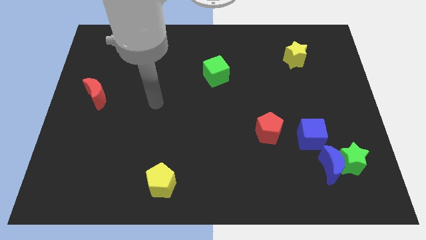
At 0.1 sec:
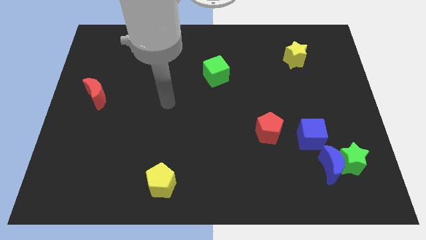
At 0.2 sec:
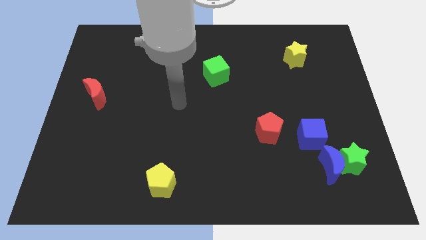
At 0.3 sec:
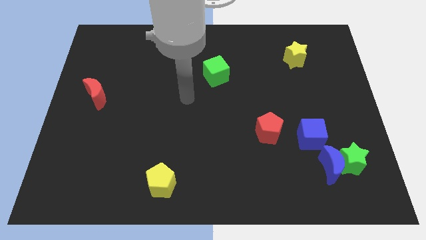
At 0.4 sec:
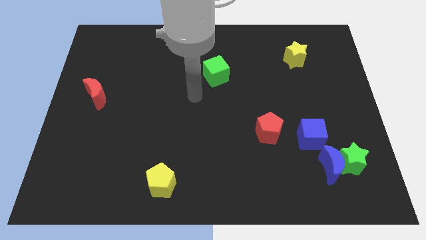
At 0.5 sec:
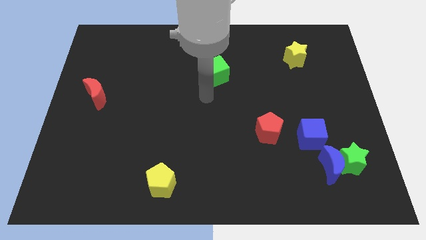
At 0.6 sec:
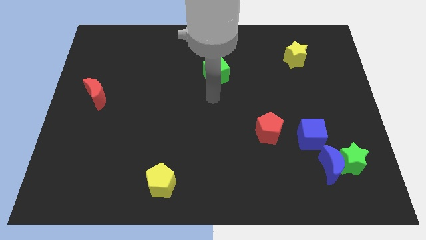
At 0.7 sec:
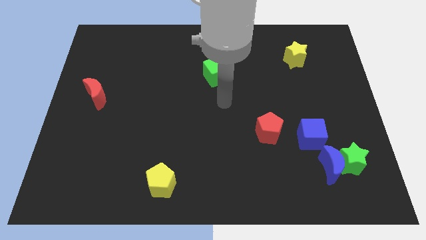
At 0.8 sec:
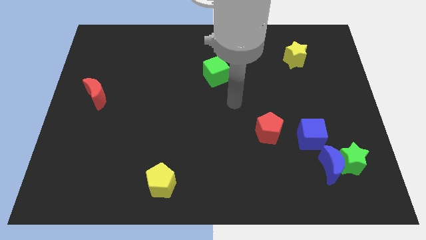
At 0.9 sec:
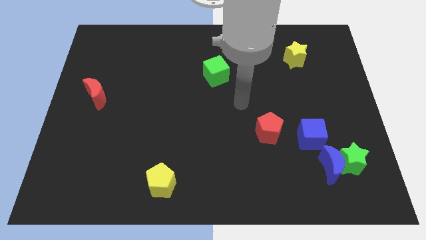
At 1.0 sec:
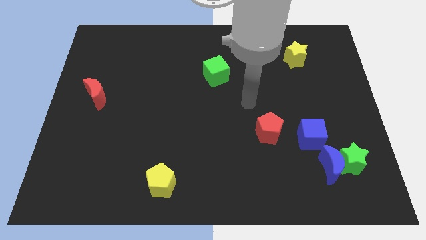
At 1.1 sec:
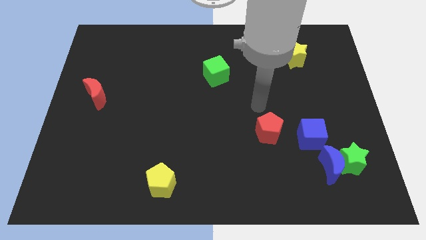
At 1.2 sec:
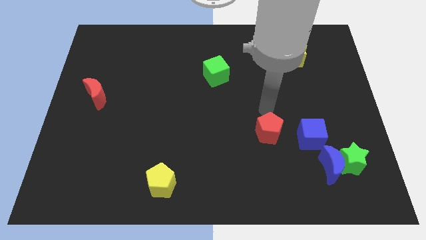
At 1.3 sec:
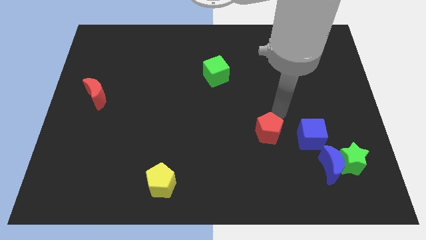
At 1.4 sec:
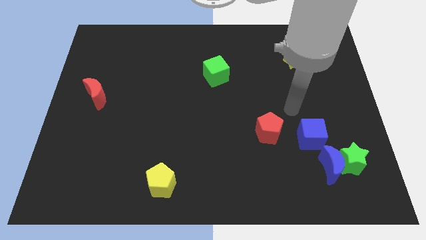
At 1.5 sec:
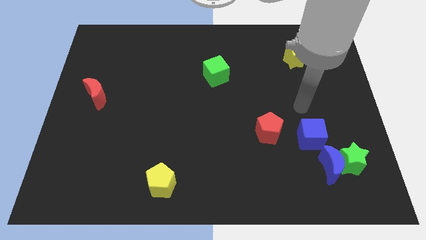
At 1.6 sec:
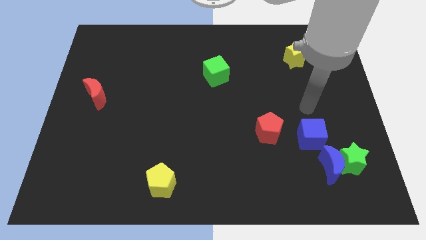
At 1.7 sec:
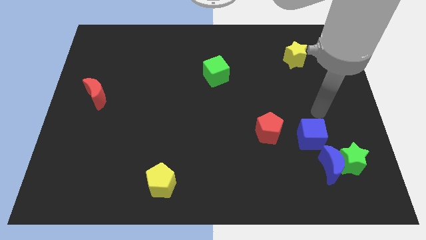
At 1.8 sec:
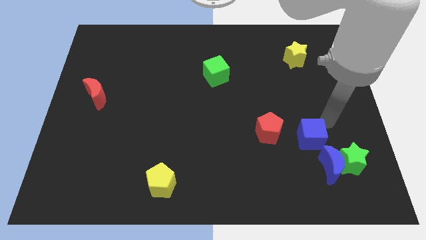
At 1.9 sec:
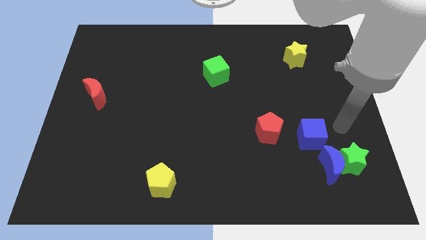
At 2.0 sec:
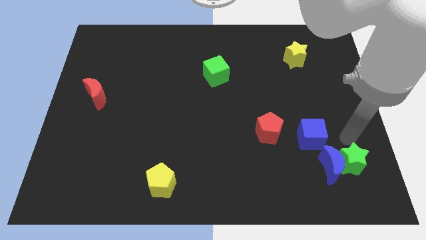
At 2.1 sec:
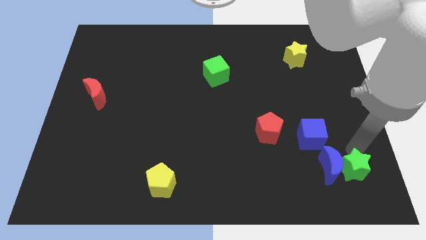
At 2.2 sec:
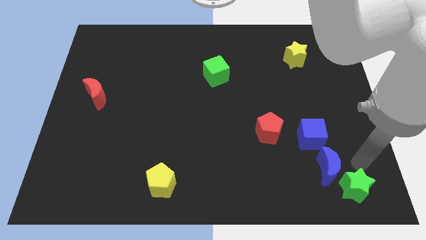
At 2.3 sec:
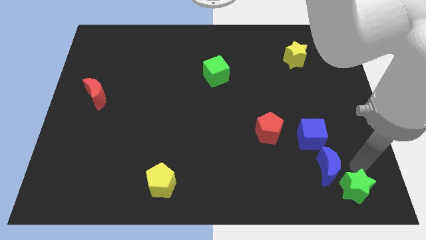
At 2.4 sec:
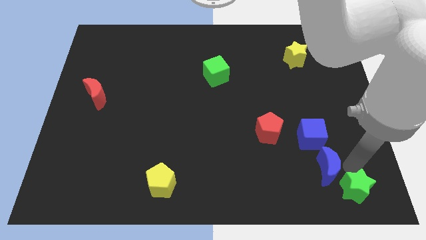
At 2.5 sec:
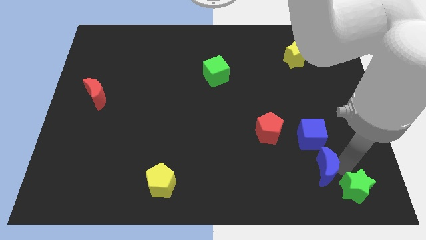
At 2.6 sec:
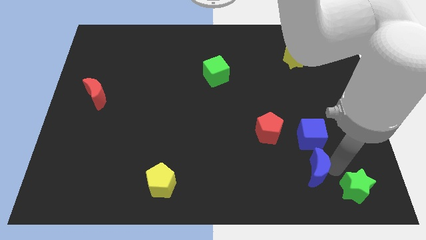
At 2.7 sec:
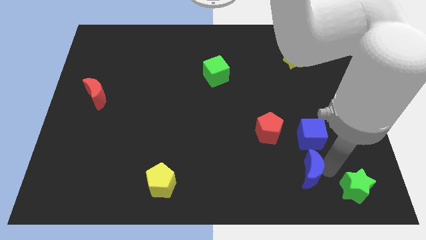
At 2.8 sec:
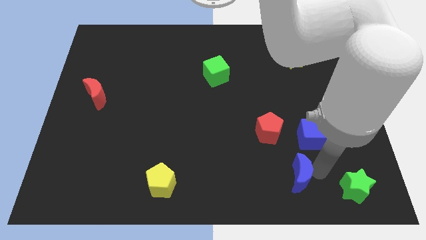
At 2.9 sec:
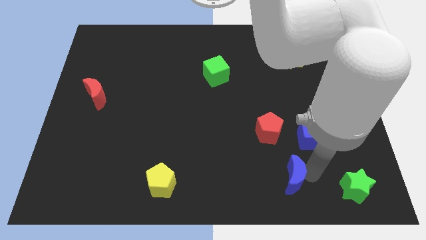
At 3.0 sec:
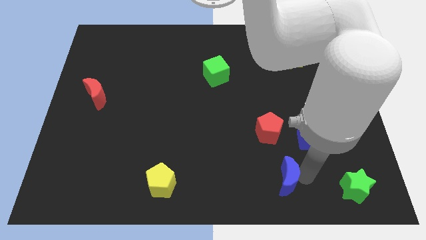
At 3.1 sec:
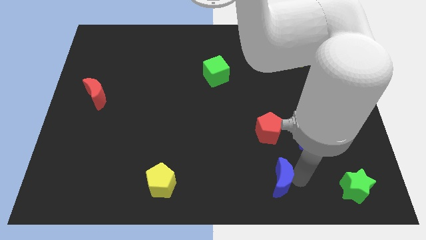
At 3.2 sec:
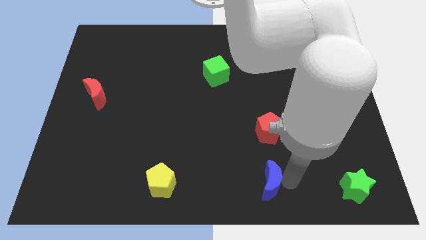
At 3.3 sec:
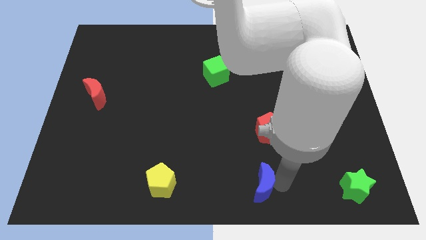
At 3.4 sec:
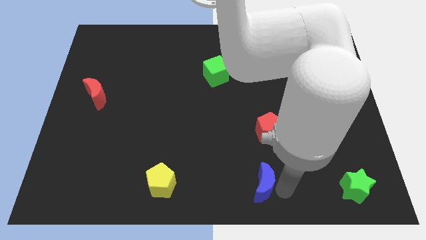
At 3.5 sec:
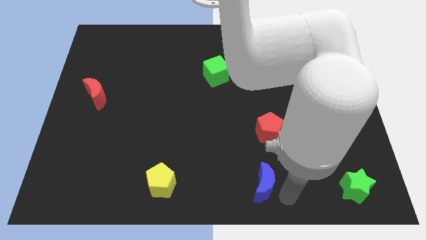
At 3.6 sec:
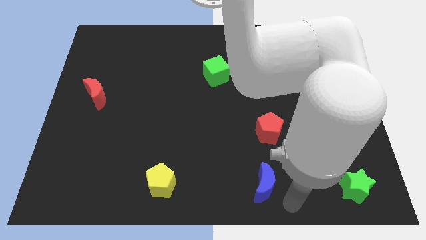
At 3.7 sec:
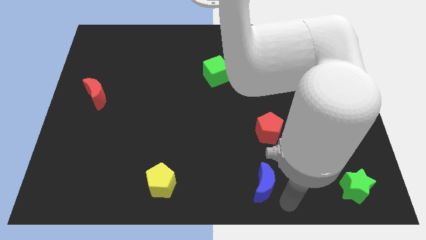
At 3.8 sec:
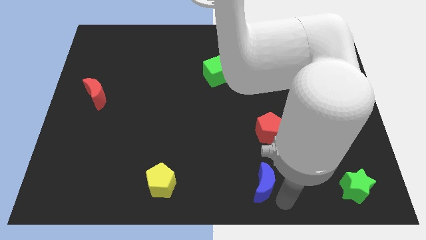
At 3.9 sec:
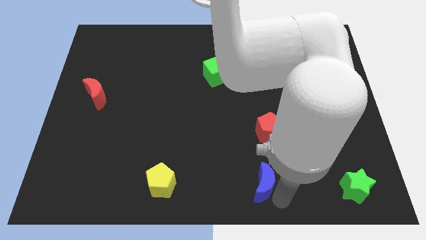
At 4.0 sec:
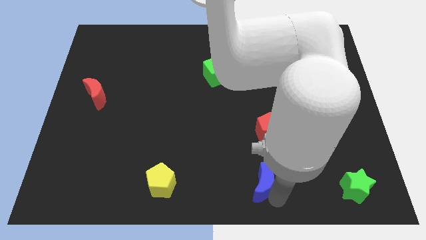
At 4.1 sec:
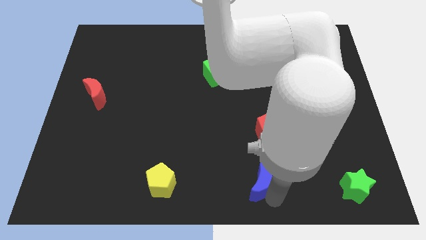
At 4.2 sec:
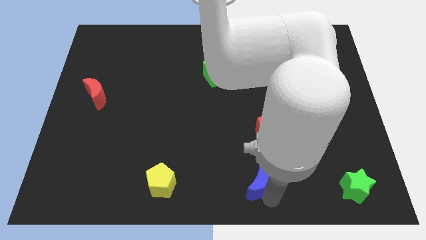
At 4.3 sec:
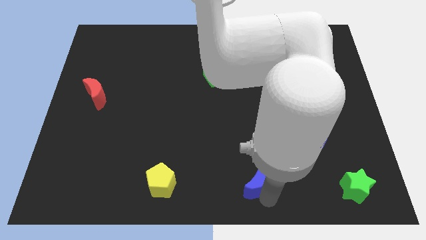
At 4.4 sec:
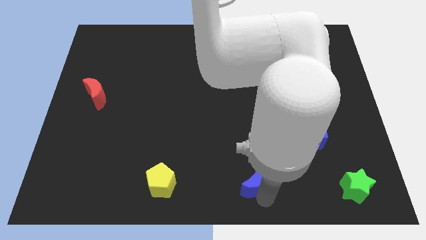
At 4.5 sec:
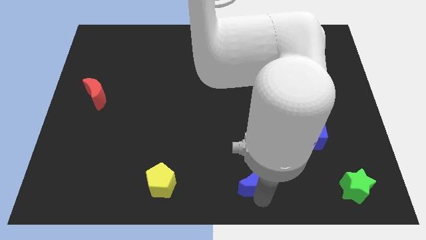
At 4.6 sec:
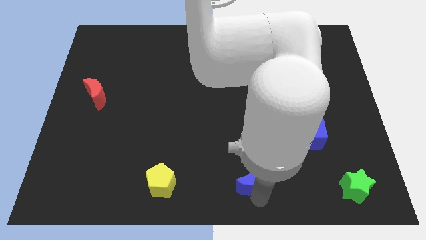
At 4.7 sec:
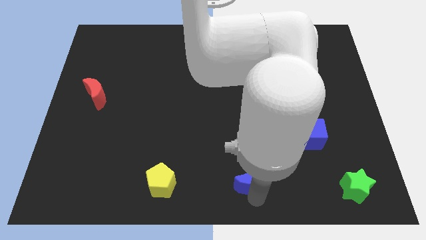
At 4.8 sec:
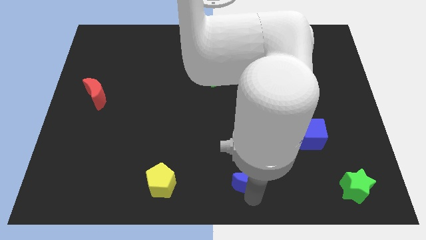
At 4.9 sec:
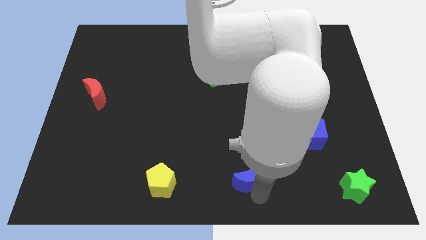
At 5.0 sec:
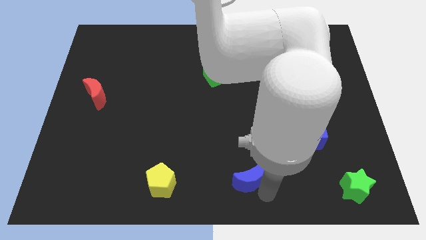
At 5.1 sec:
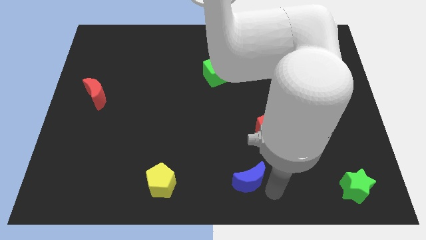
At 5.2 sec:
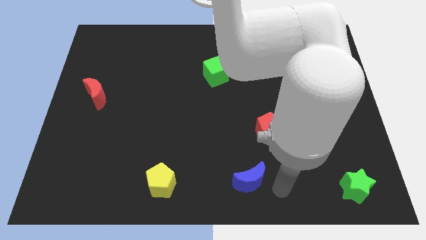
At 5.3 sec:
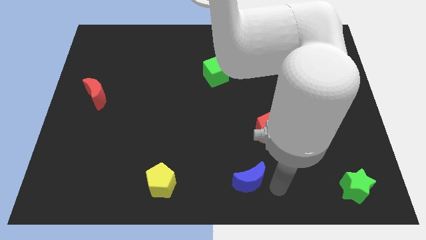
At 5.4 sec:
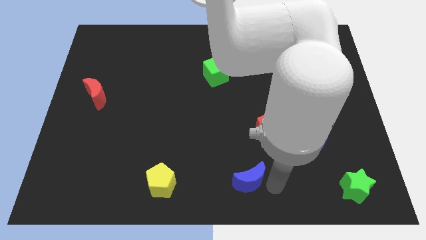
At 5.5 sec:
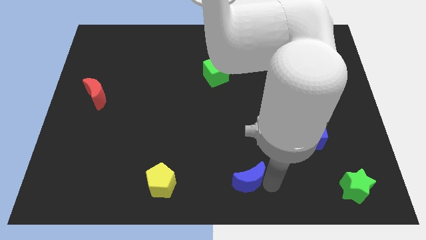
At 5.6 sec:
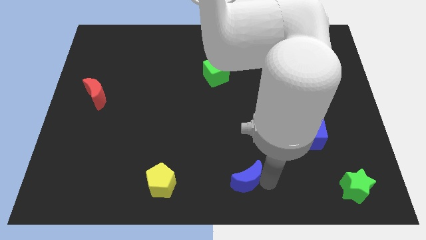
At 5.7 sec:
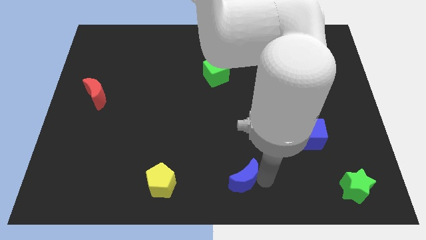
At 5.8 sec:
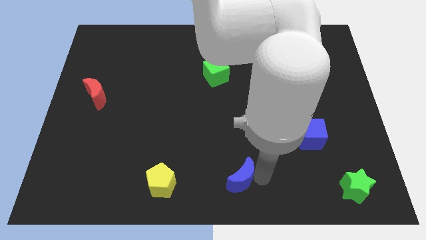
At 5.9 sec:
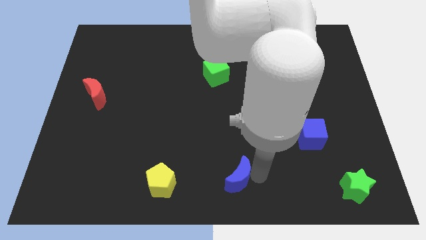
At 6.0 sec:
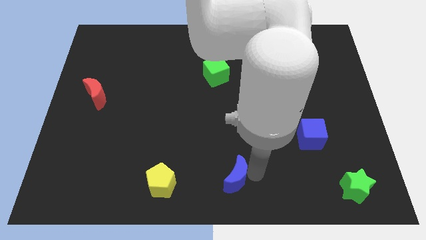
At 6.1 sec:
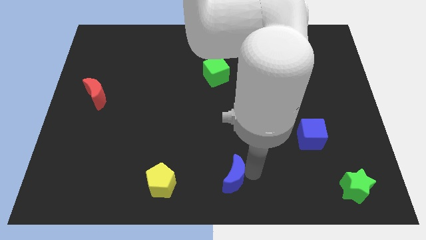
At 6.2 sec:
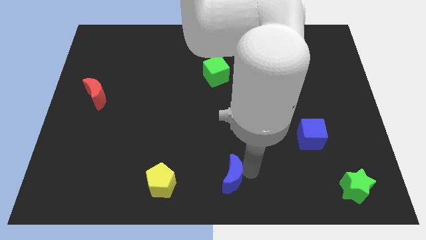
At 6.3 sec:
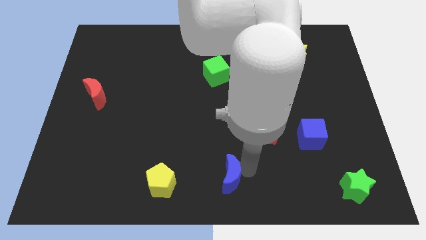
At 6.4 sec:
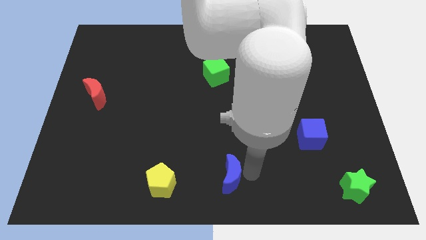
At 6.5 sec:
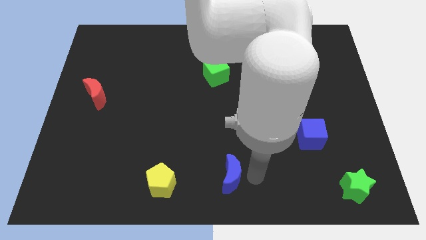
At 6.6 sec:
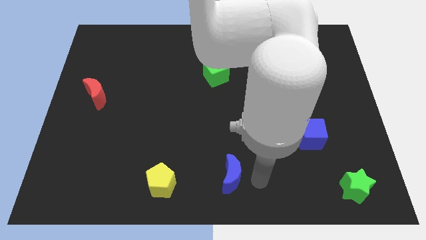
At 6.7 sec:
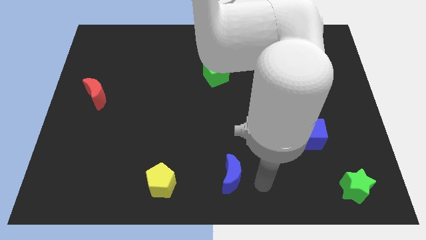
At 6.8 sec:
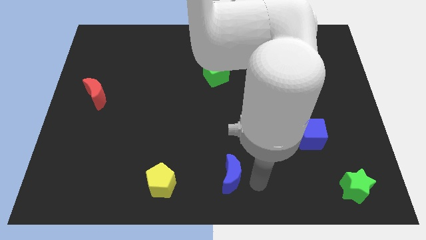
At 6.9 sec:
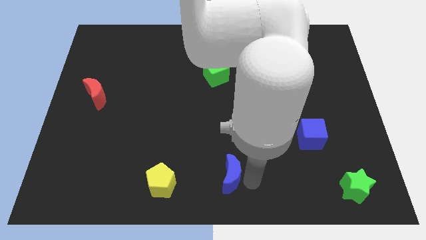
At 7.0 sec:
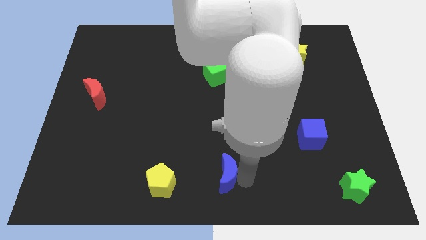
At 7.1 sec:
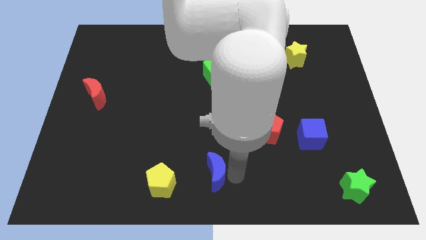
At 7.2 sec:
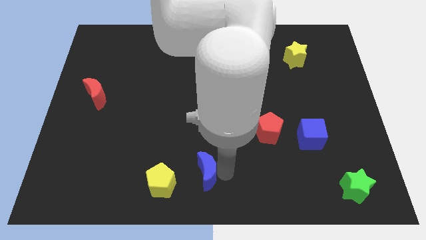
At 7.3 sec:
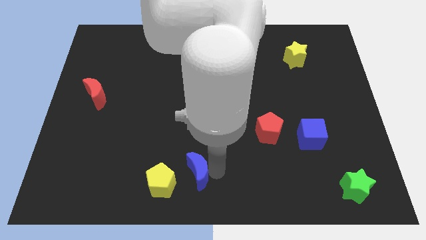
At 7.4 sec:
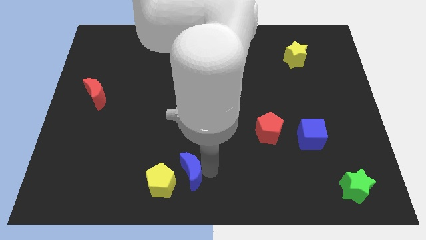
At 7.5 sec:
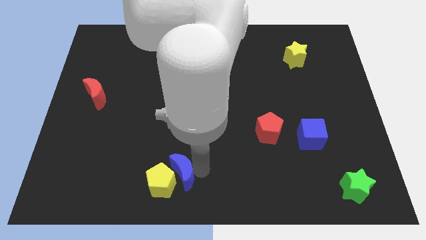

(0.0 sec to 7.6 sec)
push the blue moon close to the yellow pentagon
